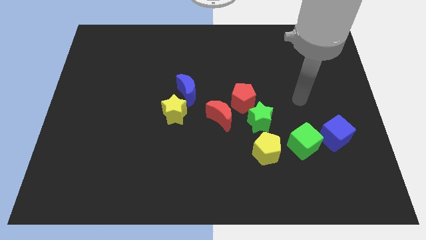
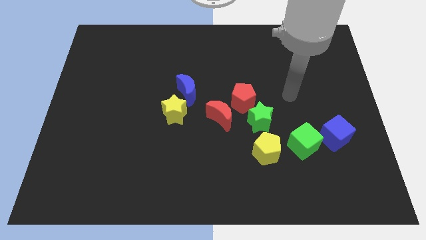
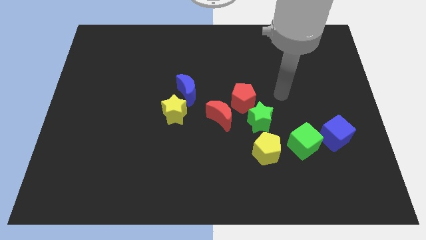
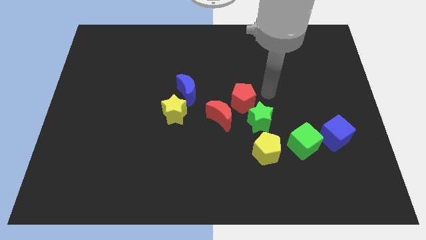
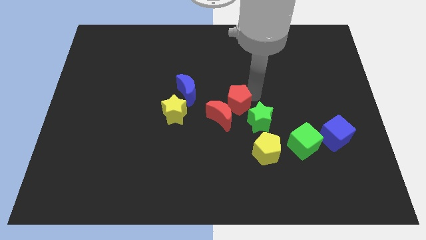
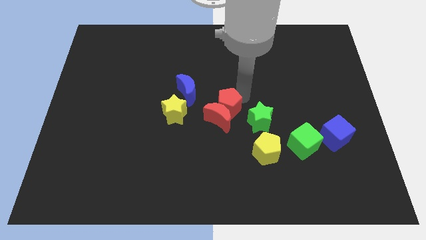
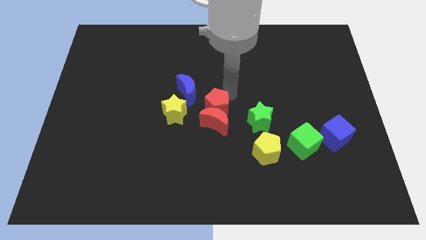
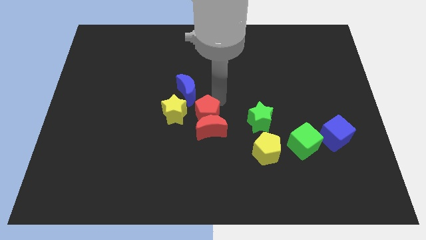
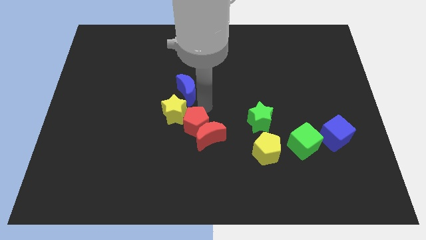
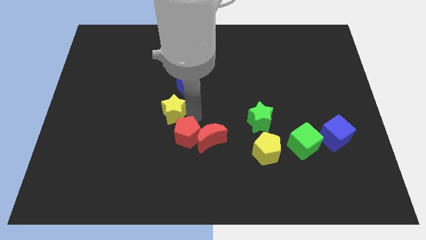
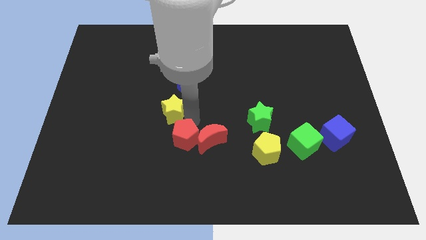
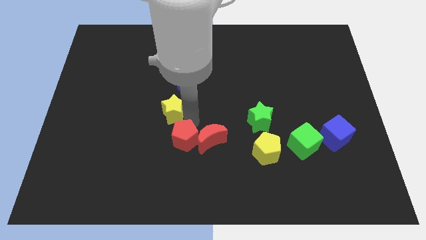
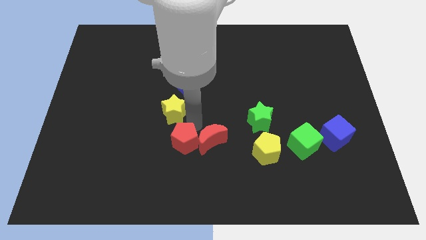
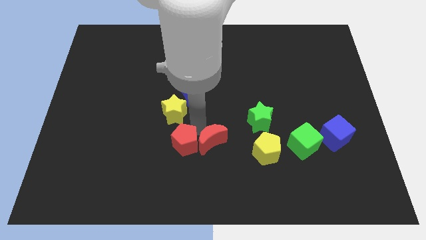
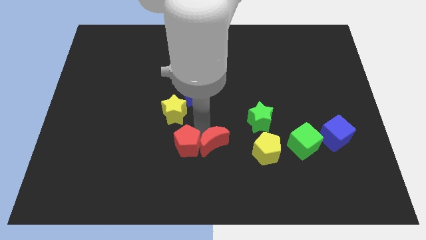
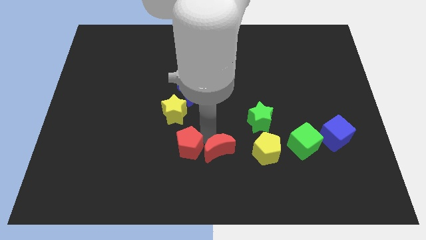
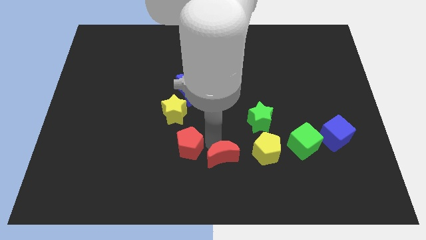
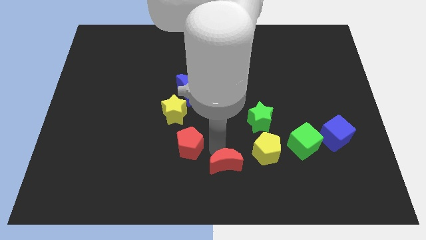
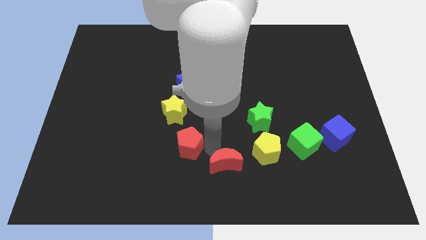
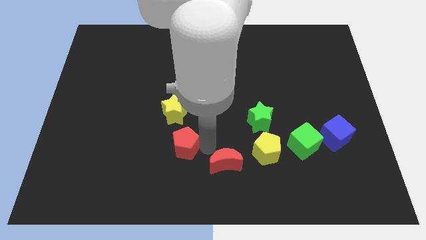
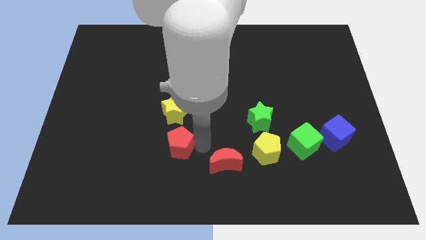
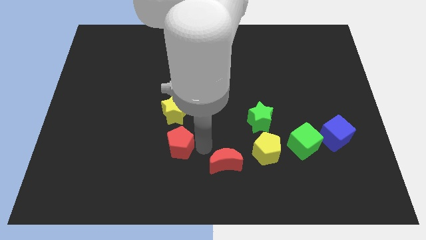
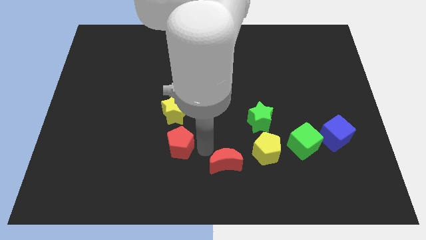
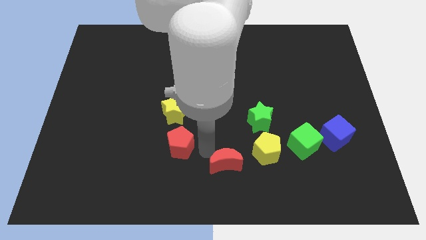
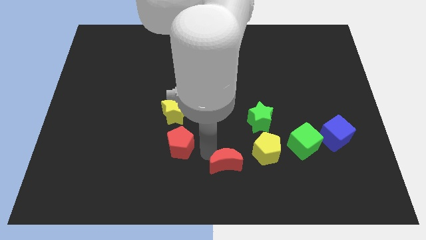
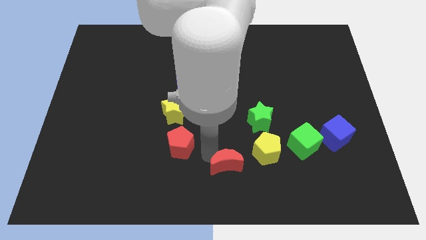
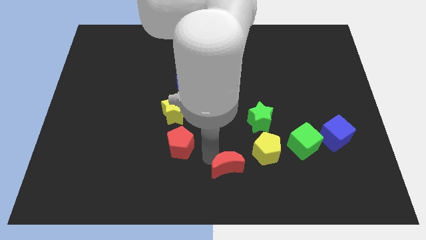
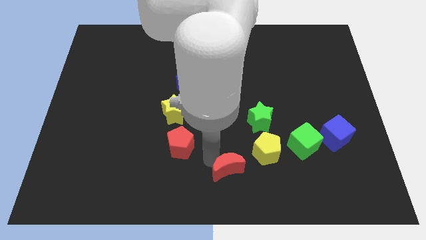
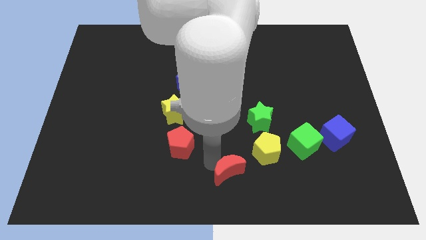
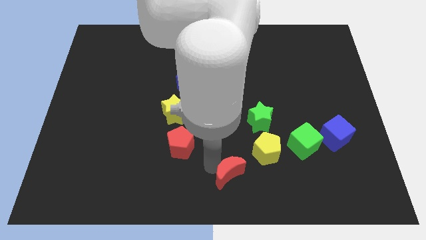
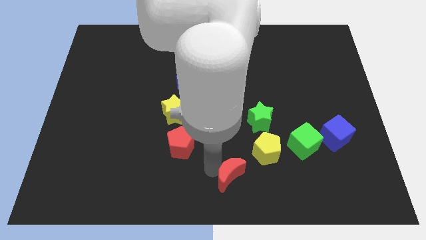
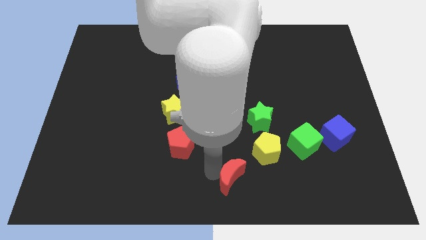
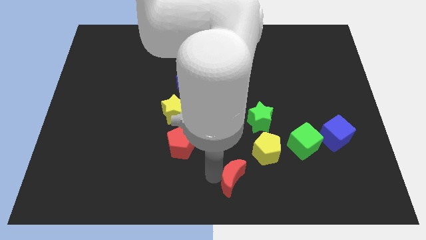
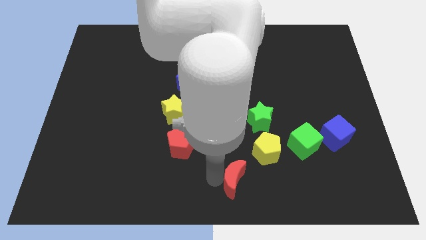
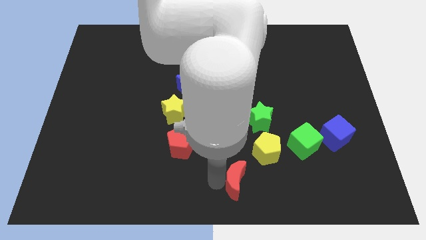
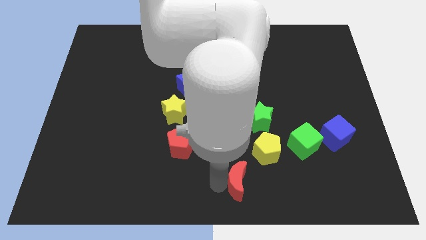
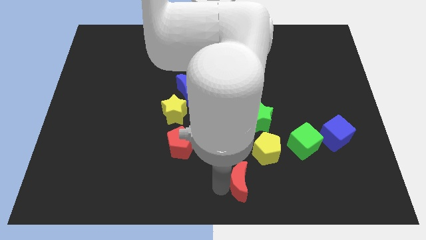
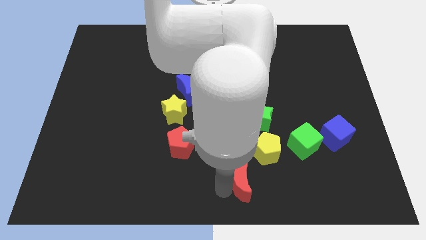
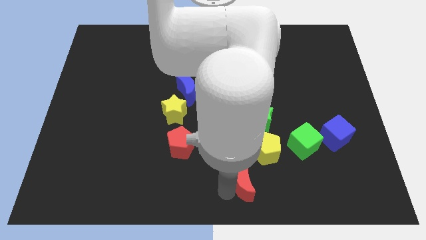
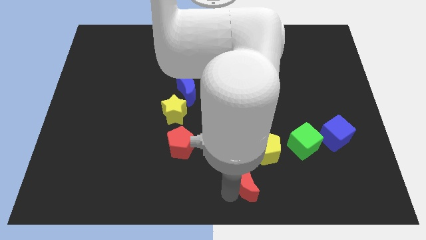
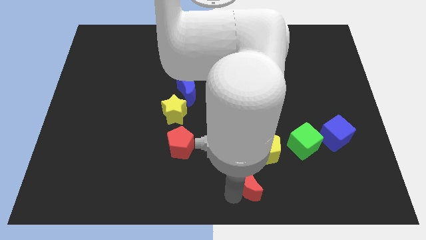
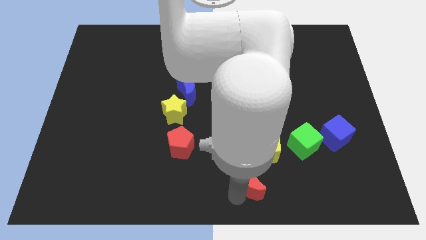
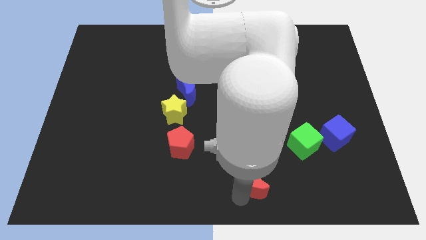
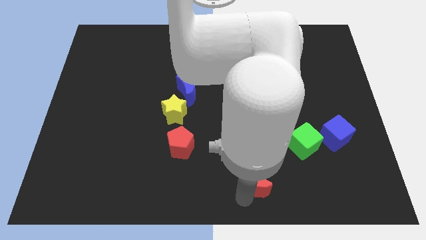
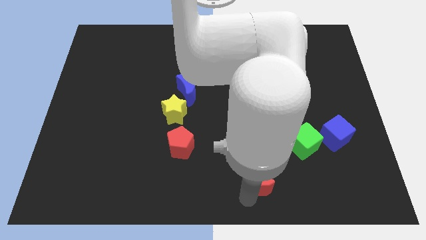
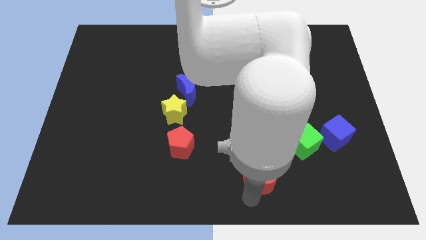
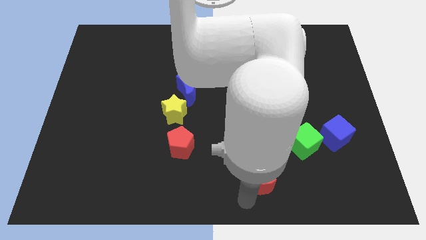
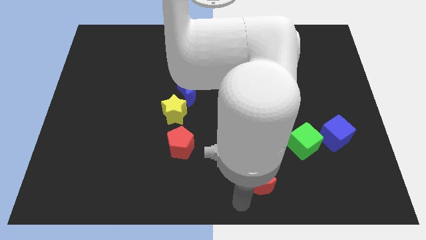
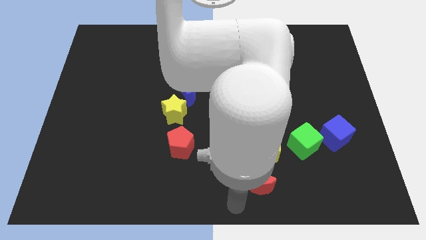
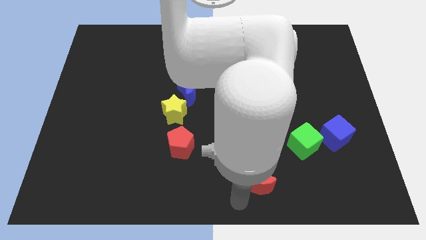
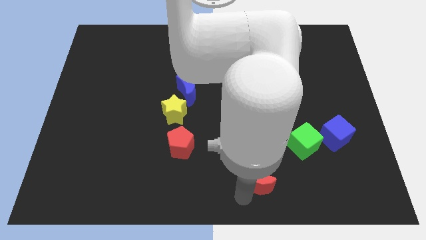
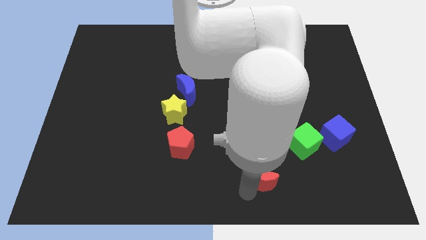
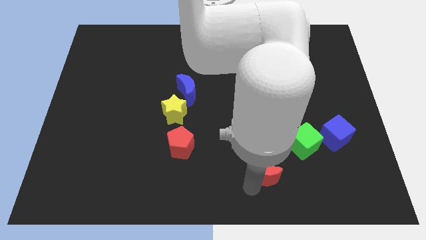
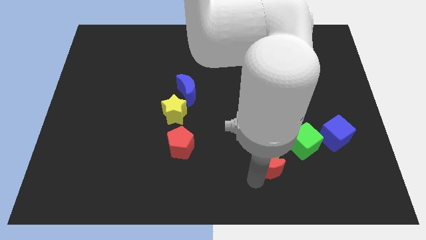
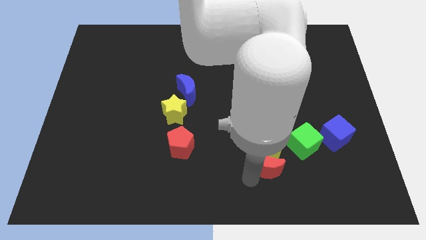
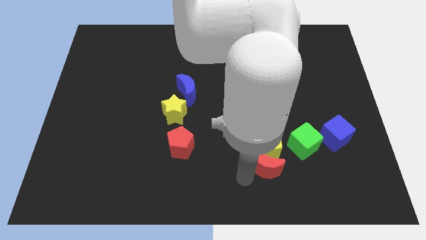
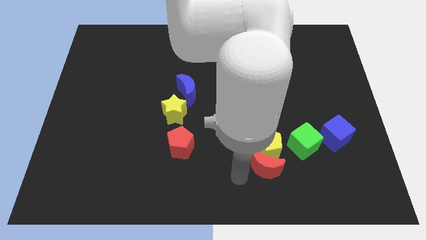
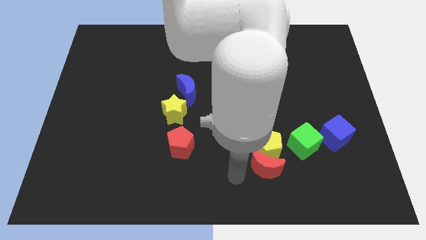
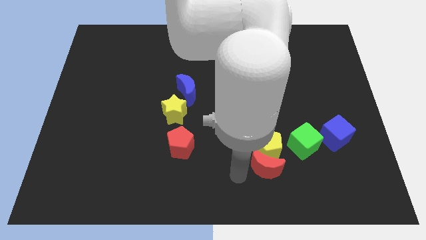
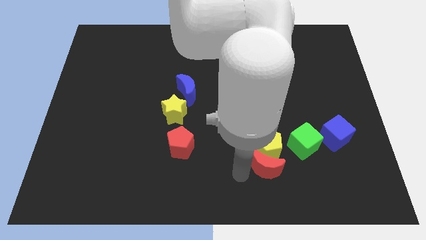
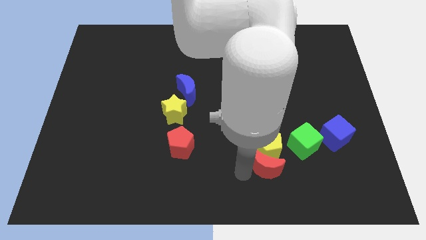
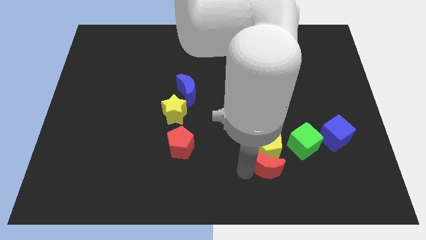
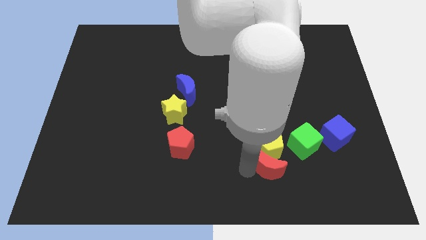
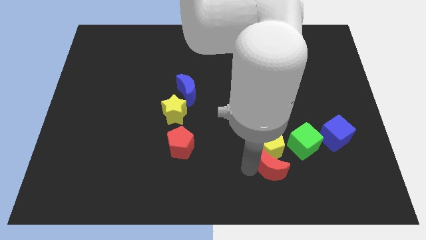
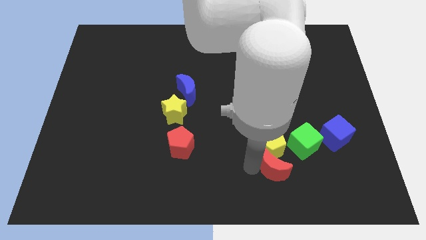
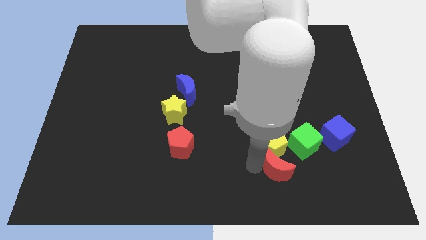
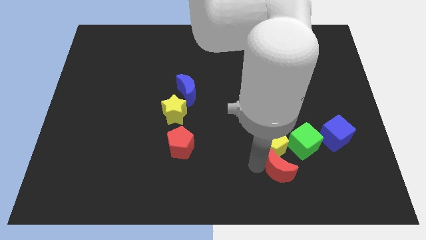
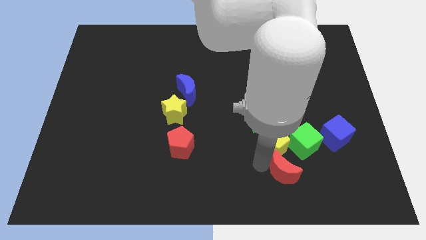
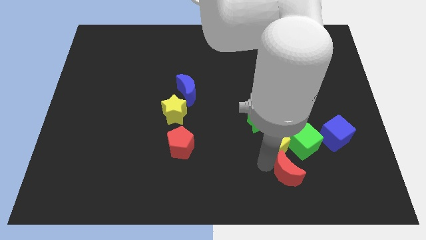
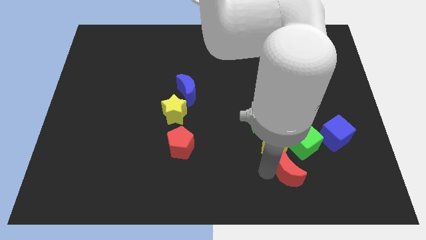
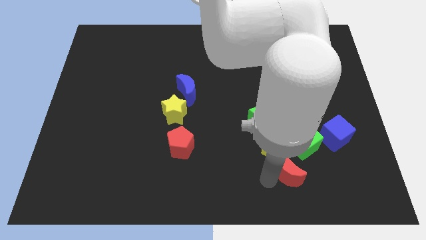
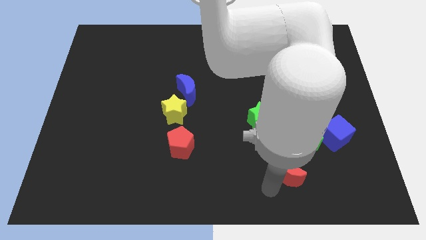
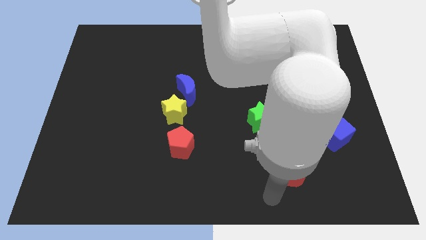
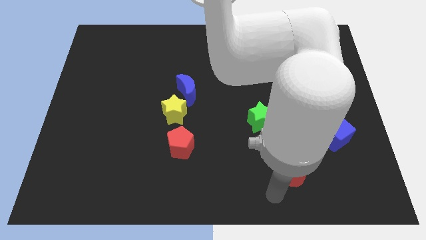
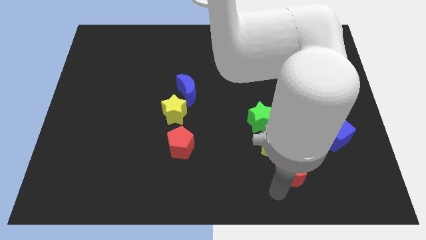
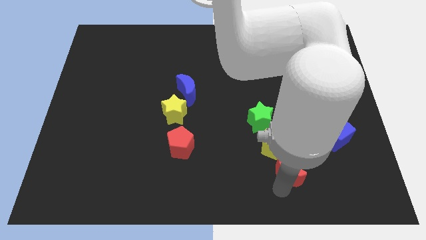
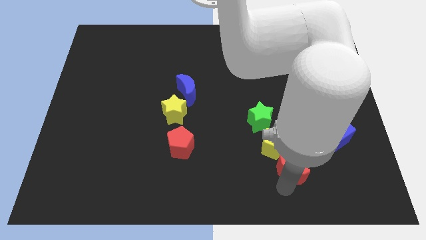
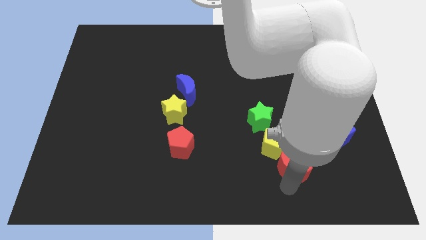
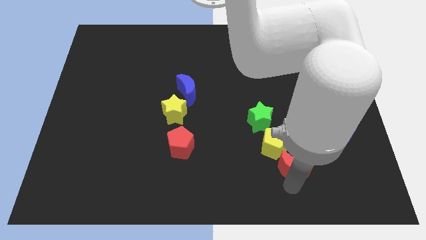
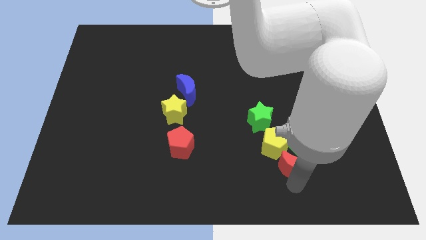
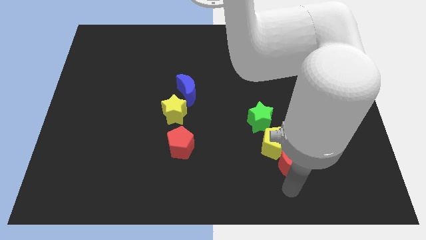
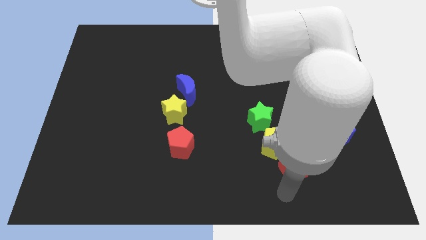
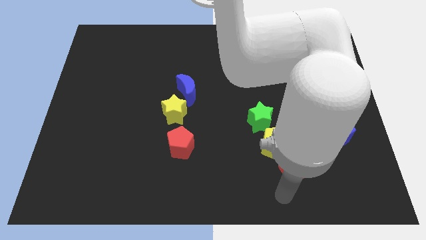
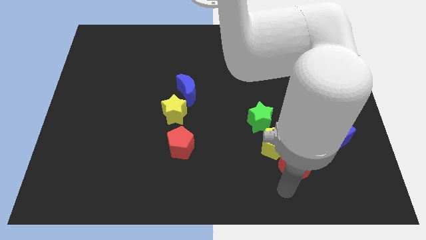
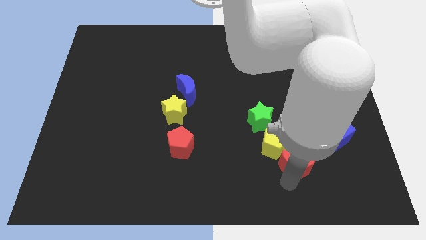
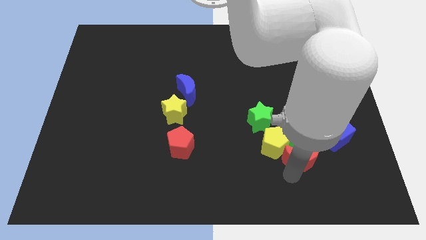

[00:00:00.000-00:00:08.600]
slide the red moon close to the green cube
